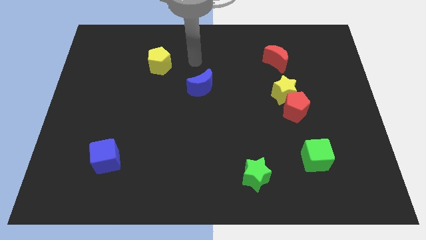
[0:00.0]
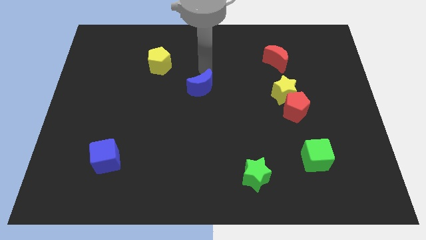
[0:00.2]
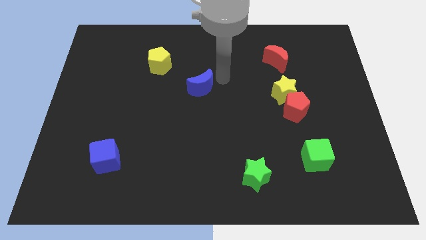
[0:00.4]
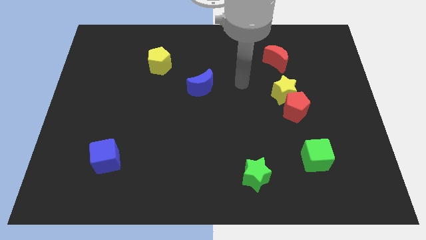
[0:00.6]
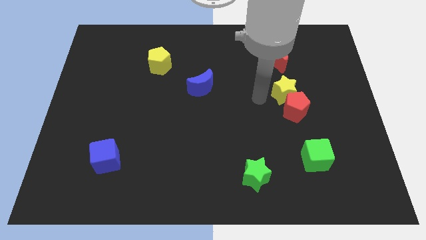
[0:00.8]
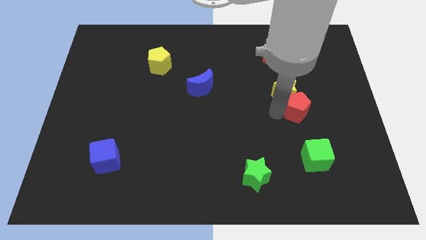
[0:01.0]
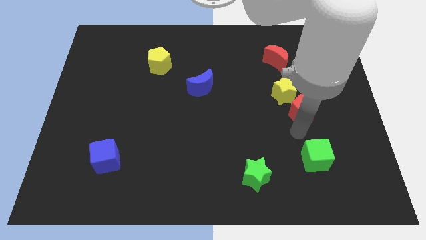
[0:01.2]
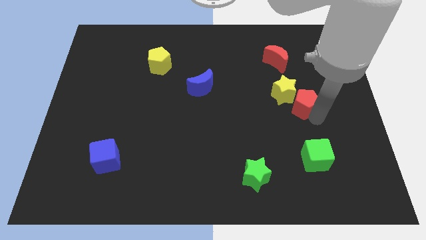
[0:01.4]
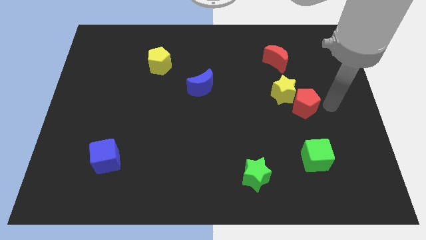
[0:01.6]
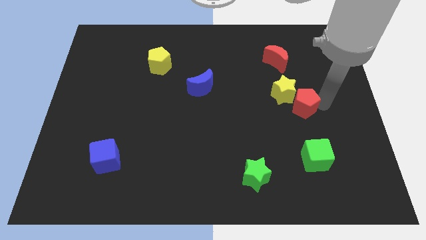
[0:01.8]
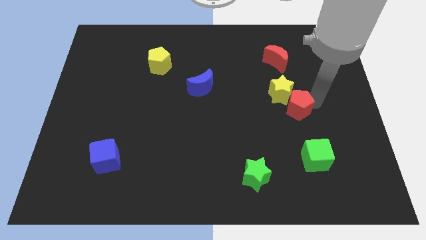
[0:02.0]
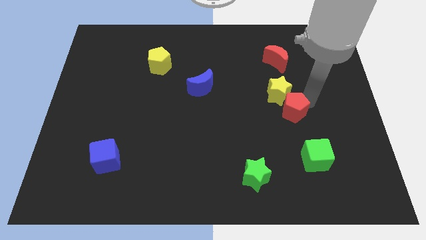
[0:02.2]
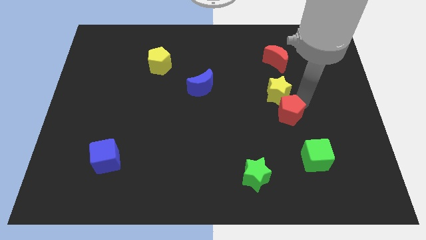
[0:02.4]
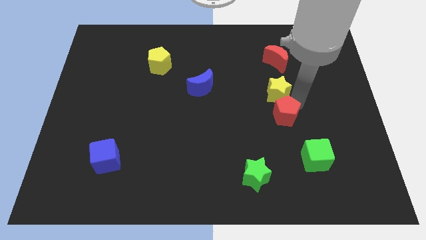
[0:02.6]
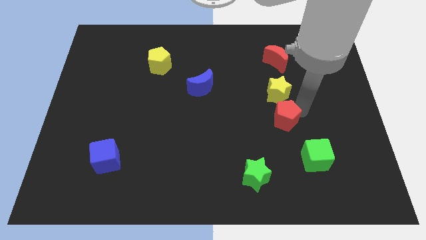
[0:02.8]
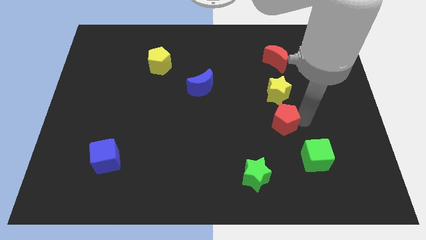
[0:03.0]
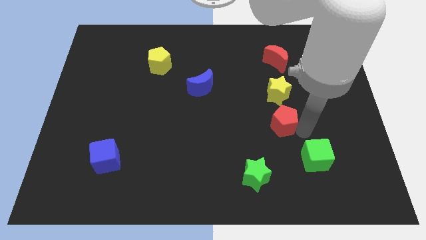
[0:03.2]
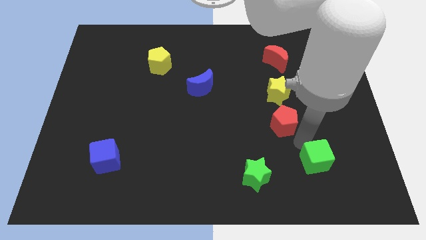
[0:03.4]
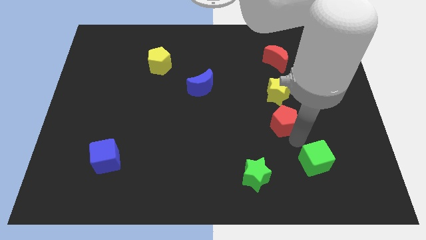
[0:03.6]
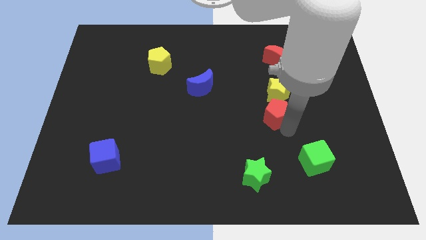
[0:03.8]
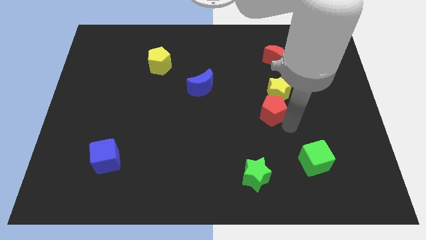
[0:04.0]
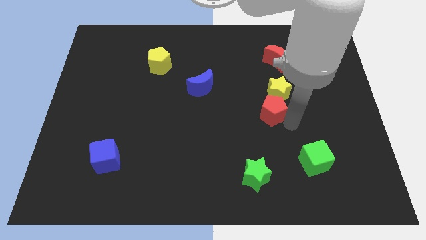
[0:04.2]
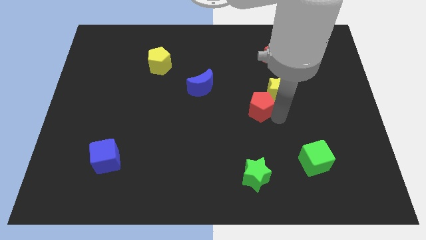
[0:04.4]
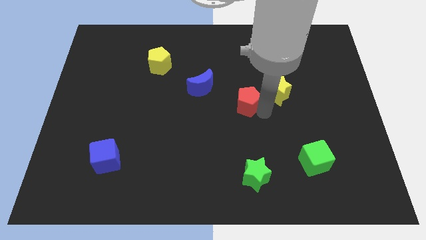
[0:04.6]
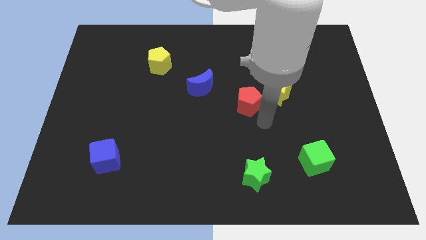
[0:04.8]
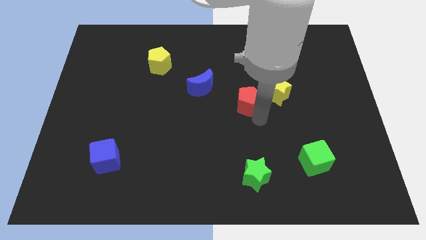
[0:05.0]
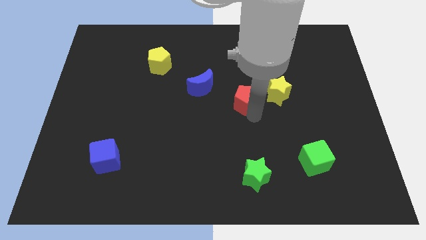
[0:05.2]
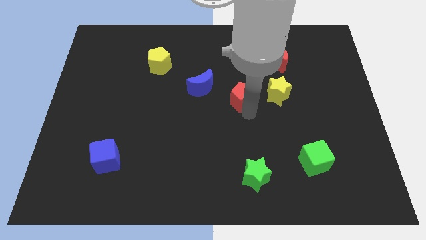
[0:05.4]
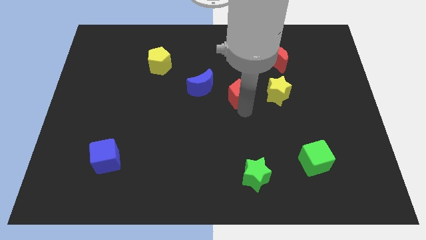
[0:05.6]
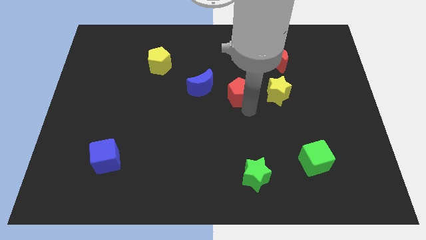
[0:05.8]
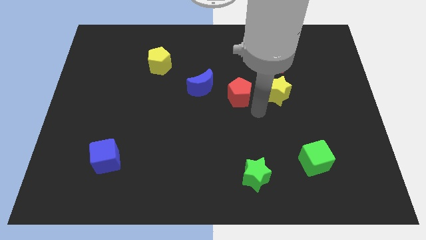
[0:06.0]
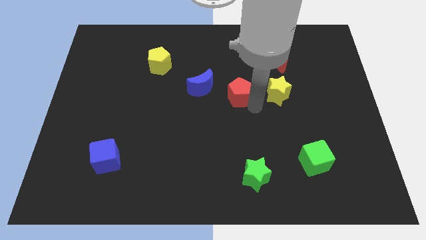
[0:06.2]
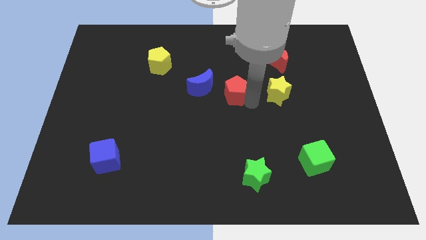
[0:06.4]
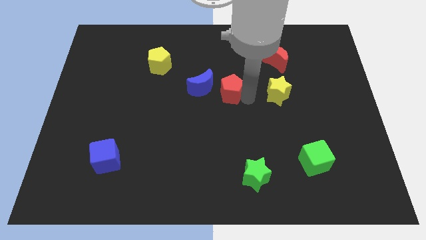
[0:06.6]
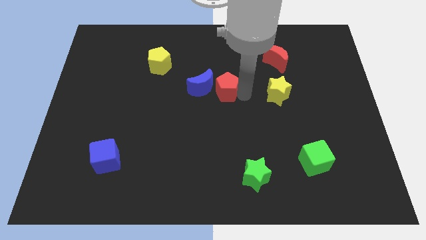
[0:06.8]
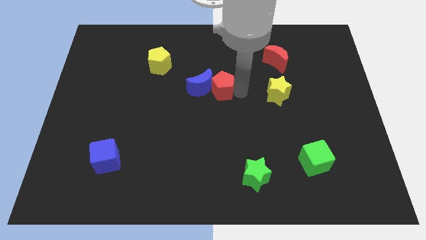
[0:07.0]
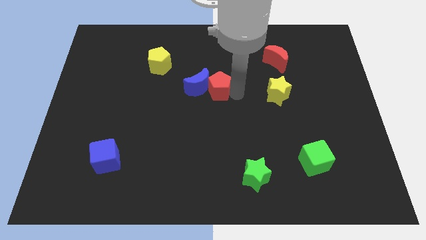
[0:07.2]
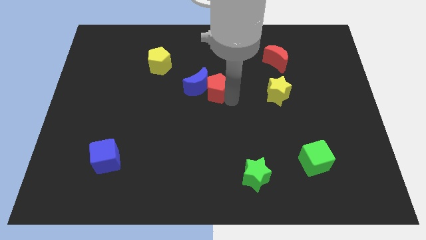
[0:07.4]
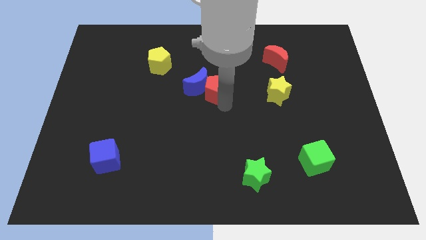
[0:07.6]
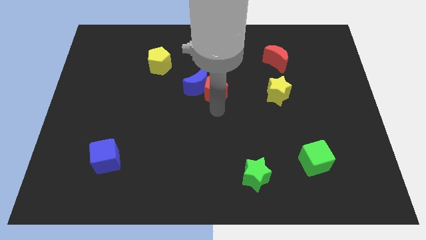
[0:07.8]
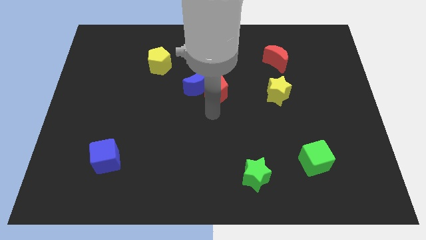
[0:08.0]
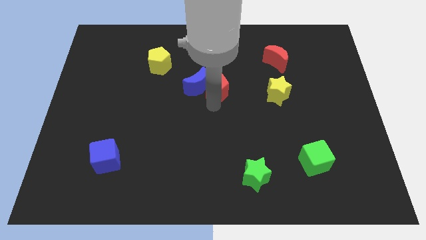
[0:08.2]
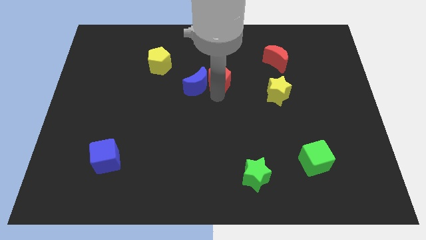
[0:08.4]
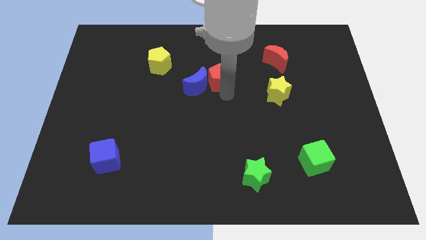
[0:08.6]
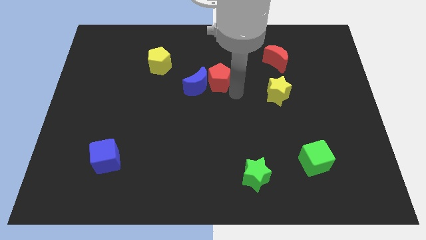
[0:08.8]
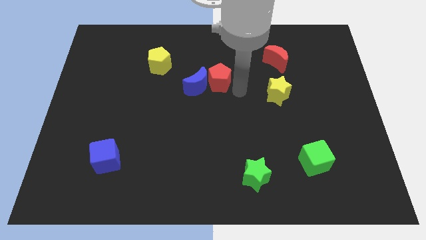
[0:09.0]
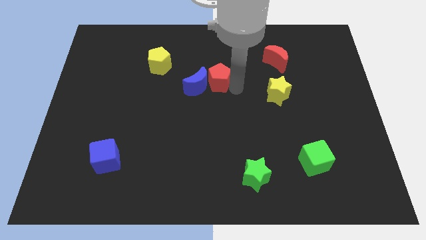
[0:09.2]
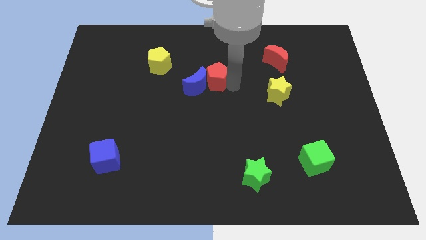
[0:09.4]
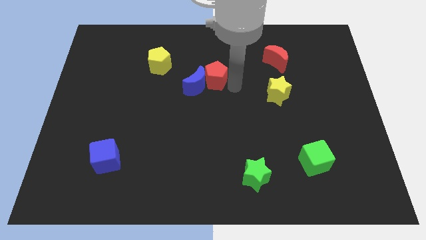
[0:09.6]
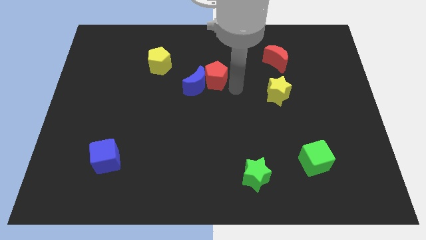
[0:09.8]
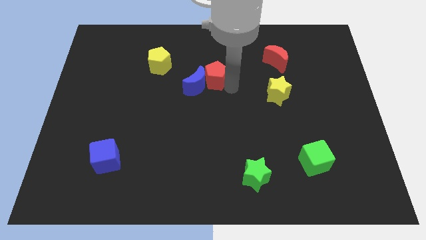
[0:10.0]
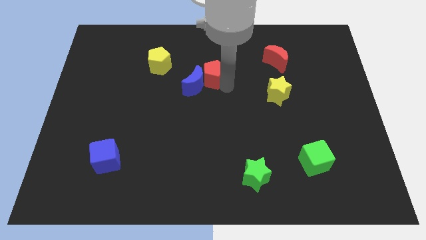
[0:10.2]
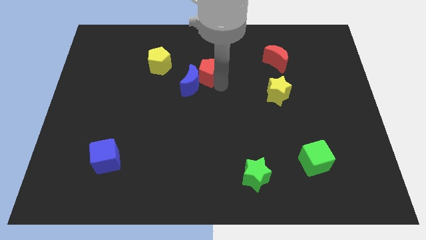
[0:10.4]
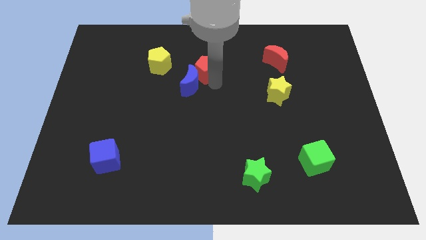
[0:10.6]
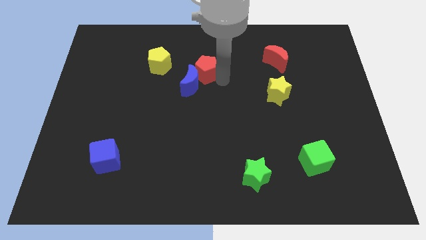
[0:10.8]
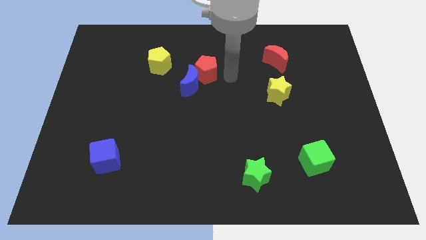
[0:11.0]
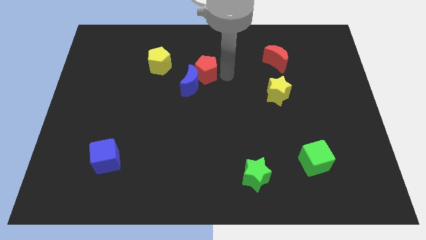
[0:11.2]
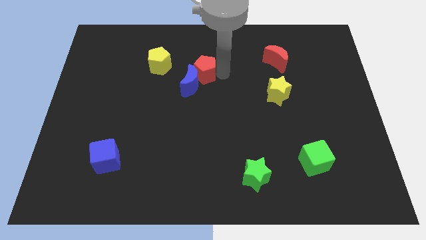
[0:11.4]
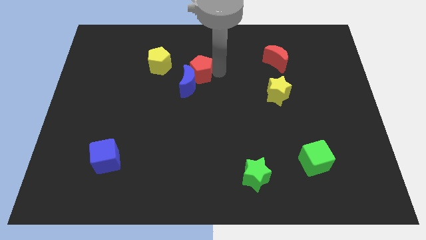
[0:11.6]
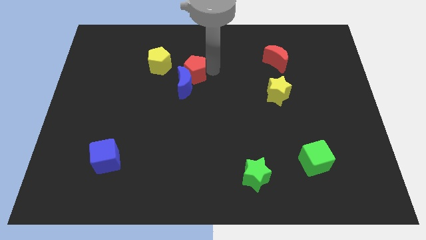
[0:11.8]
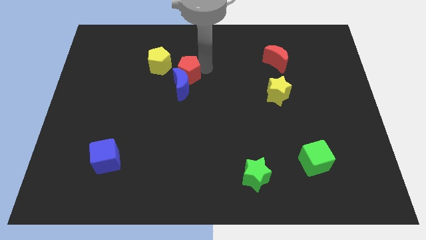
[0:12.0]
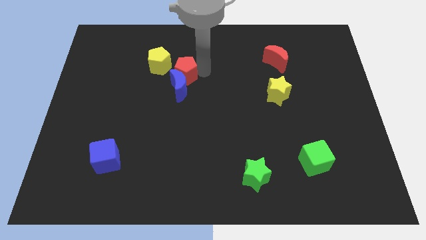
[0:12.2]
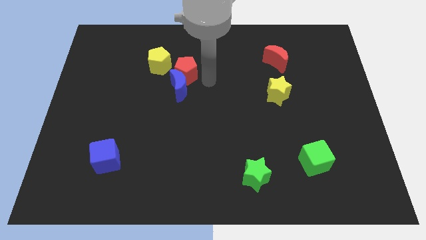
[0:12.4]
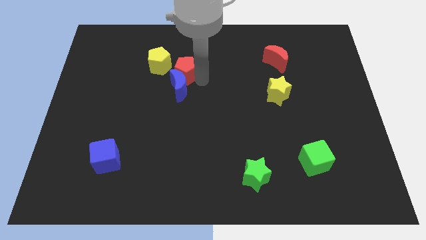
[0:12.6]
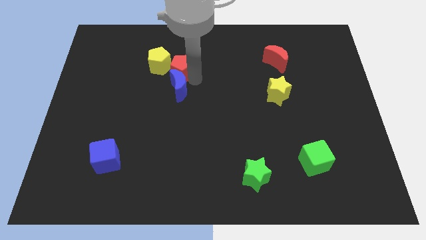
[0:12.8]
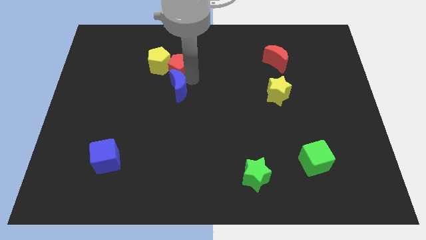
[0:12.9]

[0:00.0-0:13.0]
slide the red pentagon next to the yellow pentagon

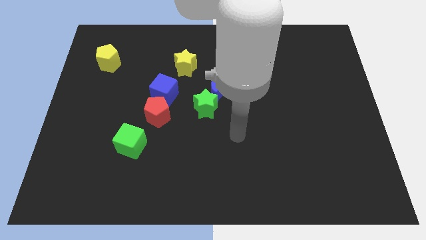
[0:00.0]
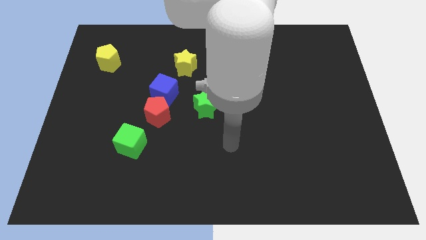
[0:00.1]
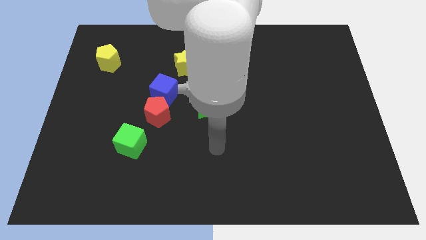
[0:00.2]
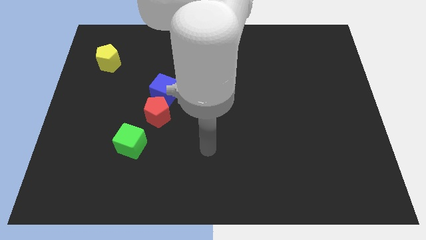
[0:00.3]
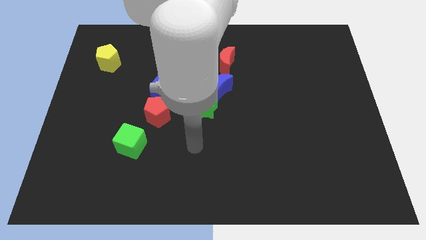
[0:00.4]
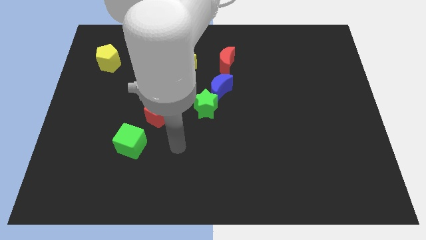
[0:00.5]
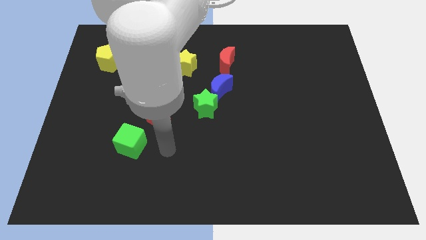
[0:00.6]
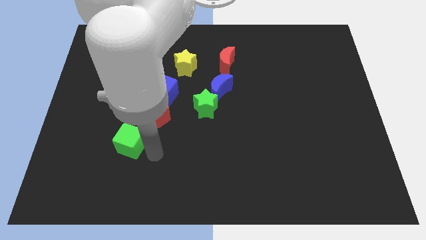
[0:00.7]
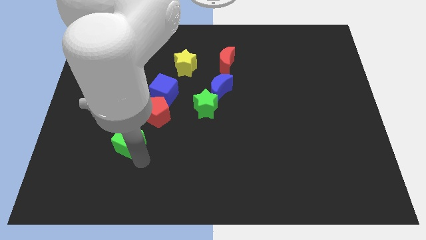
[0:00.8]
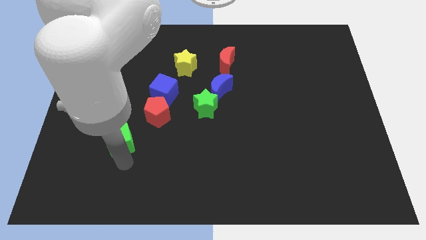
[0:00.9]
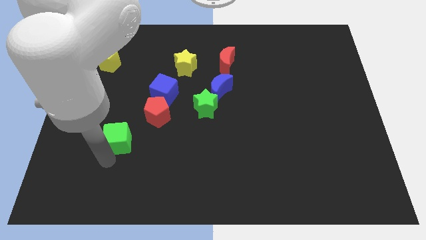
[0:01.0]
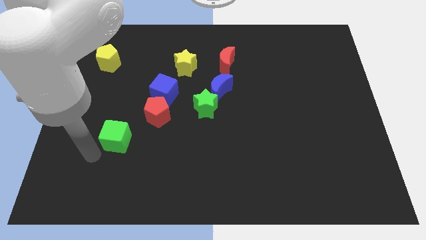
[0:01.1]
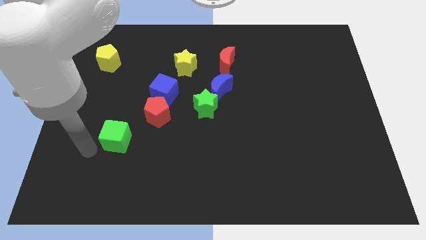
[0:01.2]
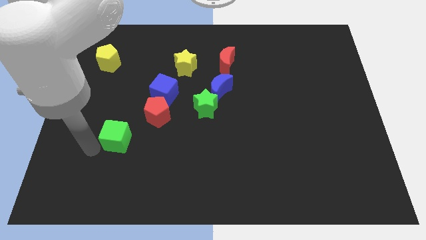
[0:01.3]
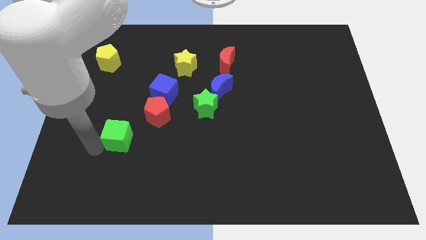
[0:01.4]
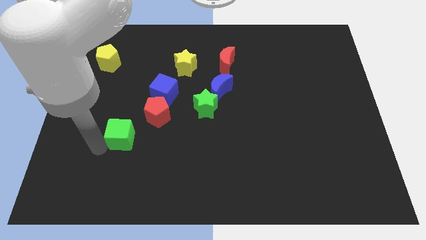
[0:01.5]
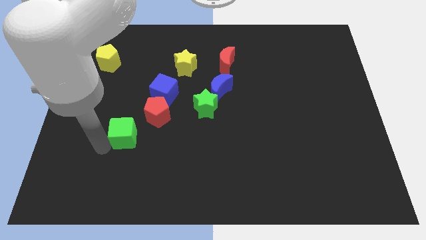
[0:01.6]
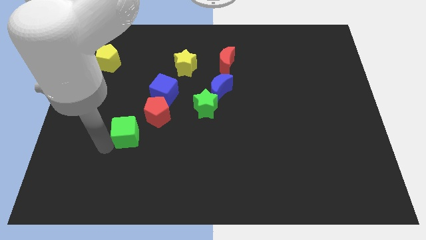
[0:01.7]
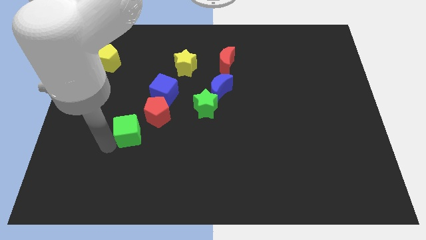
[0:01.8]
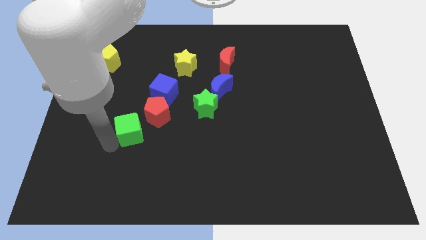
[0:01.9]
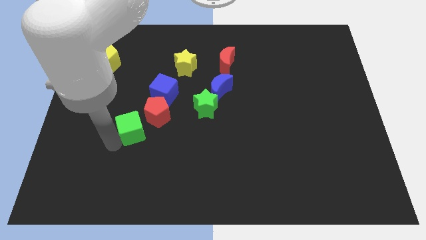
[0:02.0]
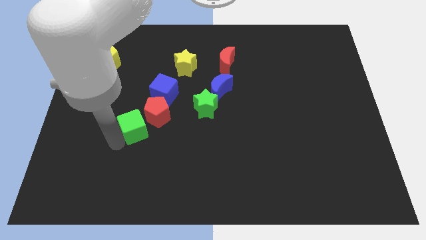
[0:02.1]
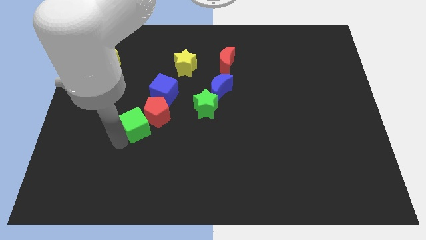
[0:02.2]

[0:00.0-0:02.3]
put the green cube towards the red pentagon
